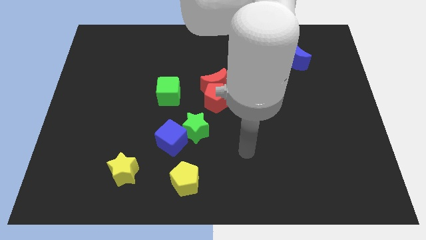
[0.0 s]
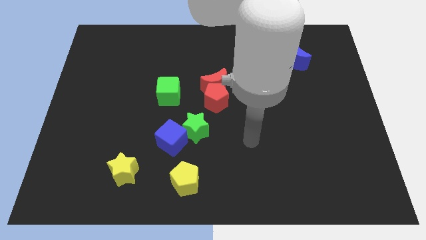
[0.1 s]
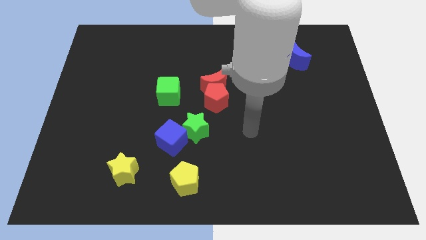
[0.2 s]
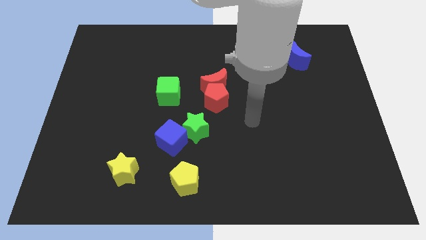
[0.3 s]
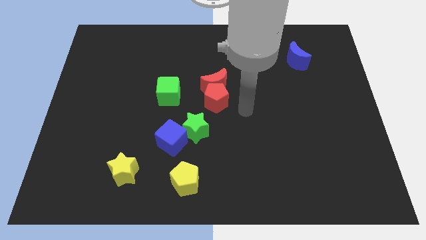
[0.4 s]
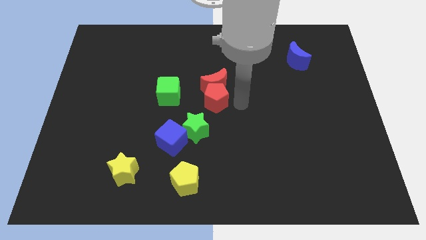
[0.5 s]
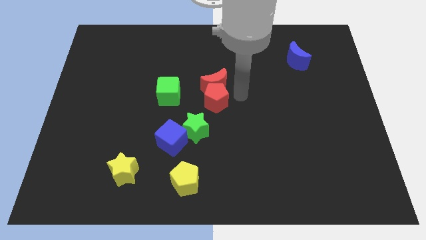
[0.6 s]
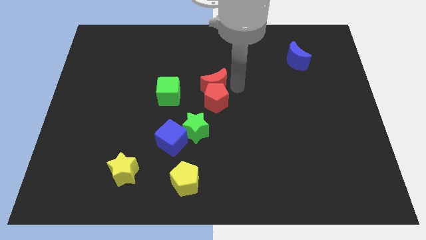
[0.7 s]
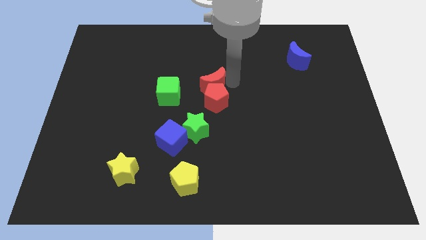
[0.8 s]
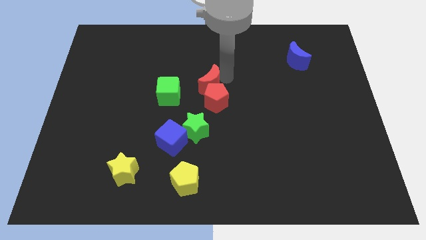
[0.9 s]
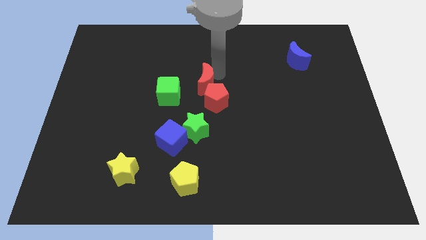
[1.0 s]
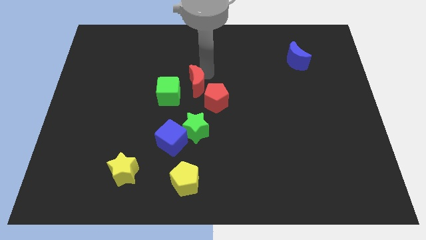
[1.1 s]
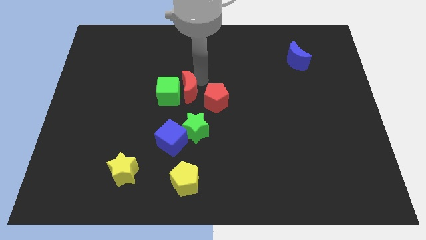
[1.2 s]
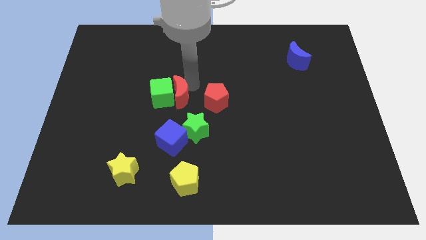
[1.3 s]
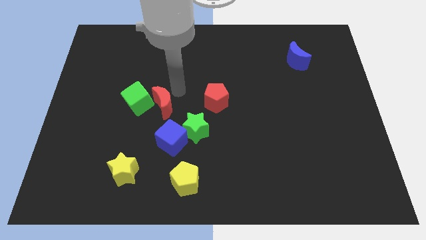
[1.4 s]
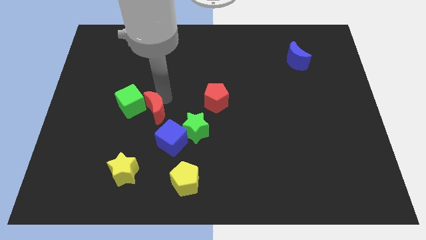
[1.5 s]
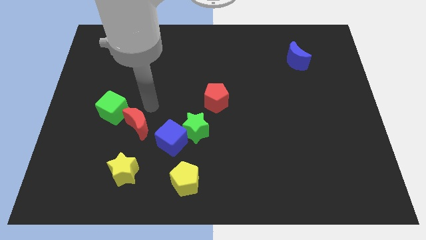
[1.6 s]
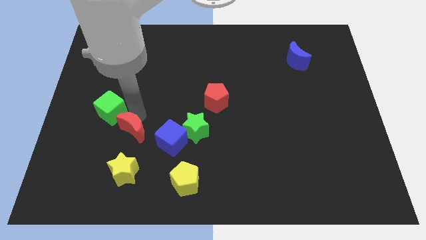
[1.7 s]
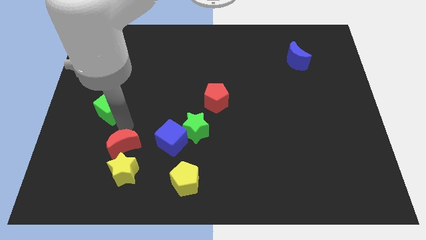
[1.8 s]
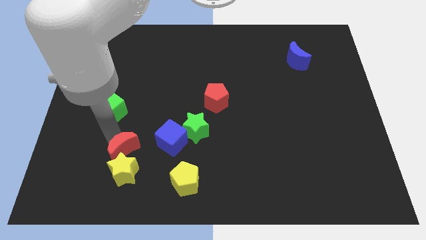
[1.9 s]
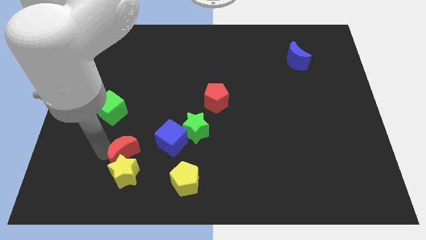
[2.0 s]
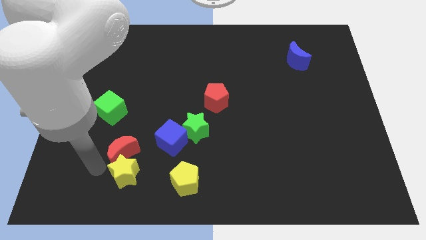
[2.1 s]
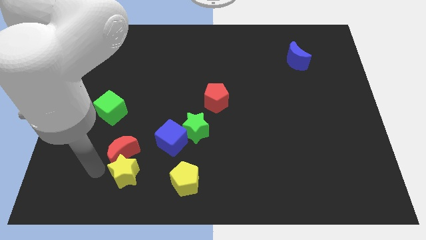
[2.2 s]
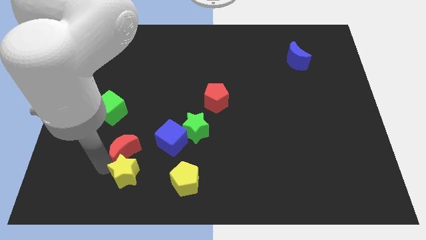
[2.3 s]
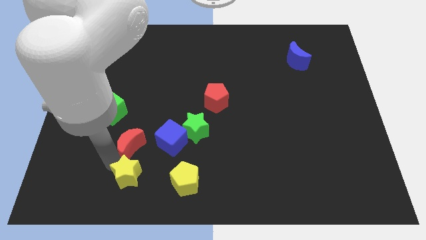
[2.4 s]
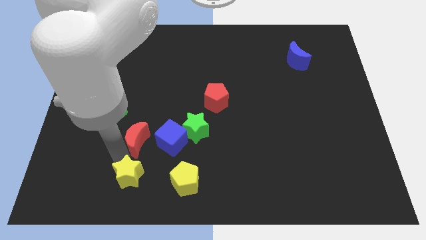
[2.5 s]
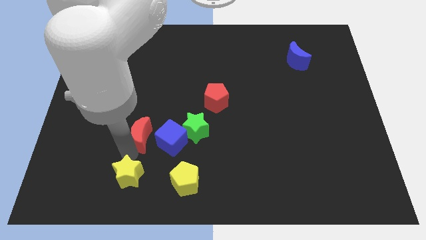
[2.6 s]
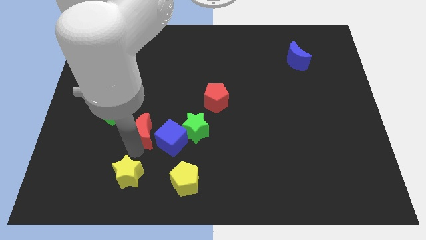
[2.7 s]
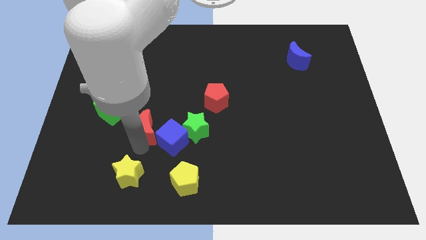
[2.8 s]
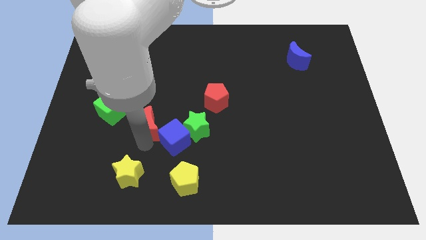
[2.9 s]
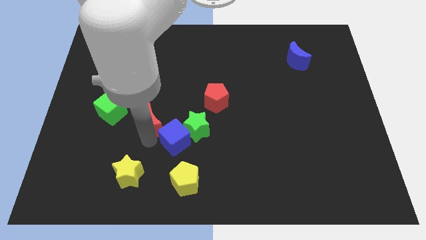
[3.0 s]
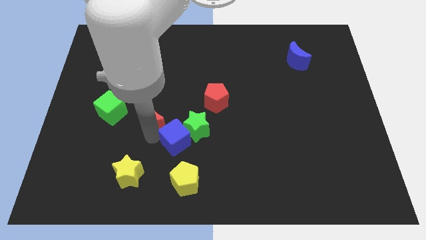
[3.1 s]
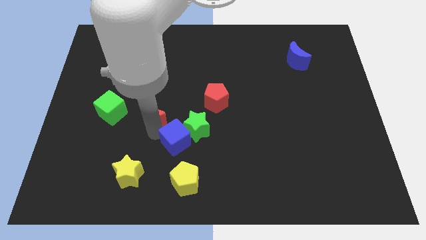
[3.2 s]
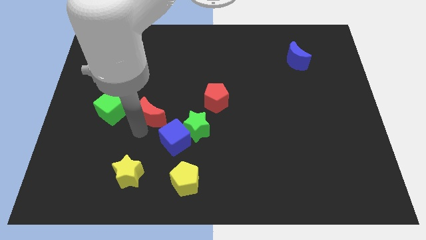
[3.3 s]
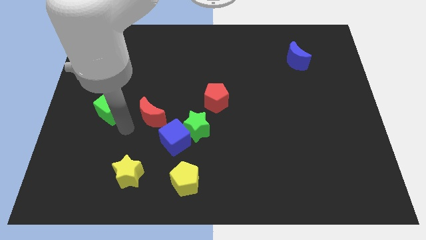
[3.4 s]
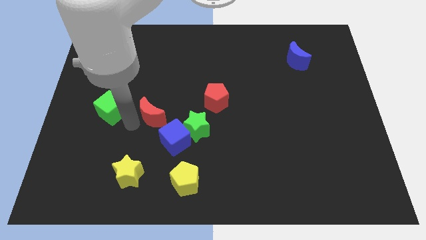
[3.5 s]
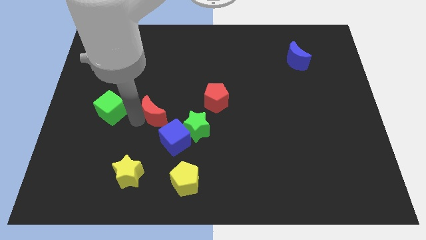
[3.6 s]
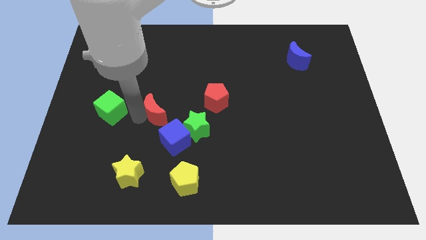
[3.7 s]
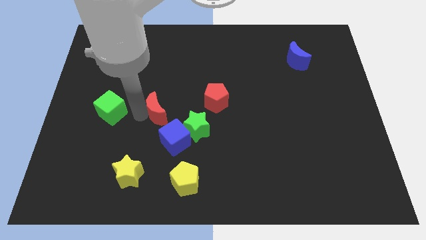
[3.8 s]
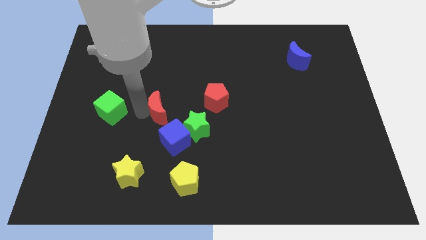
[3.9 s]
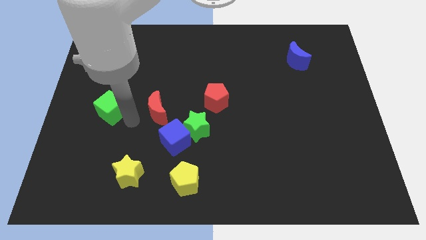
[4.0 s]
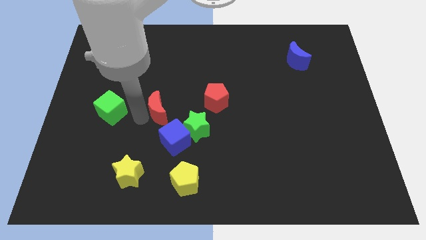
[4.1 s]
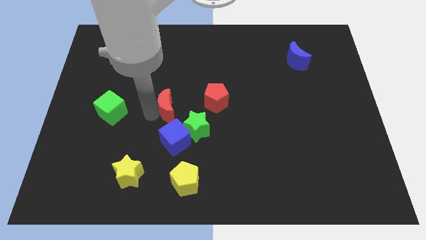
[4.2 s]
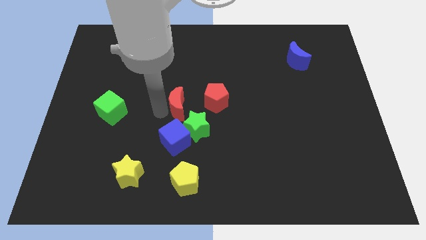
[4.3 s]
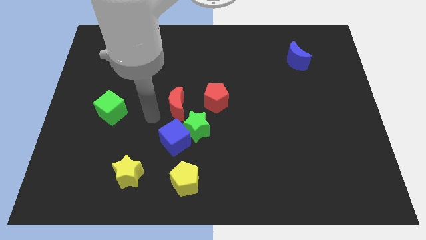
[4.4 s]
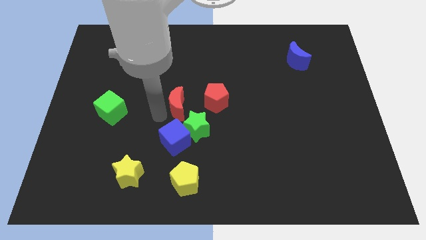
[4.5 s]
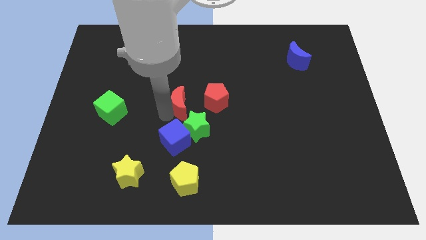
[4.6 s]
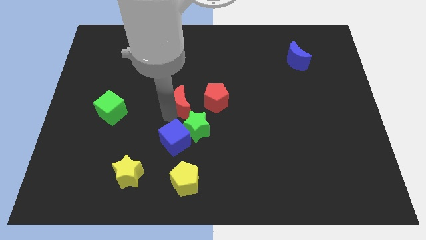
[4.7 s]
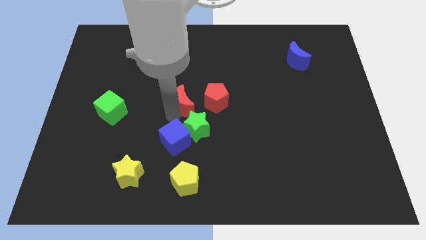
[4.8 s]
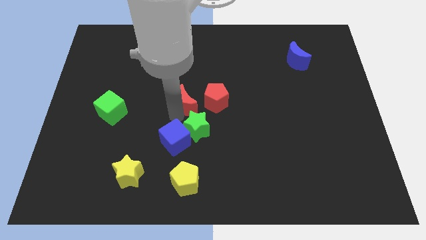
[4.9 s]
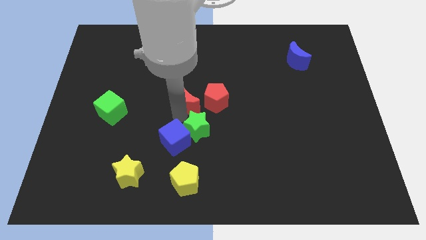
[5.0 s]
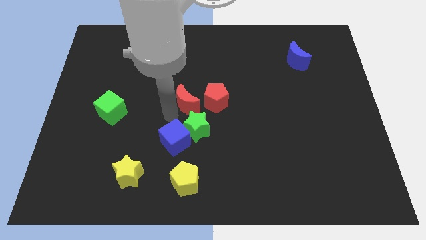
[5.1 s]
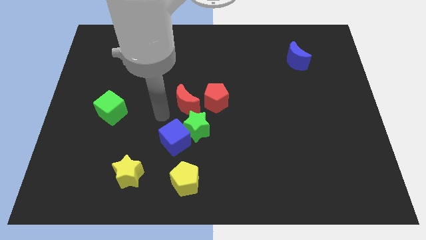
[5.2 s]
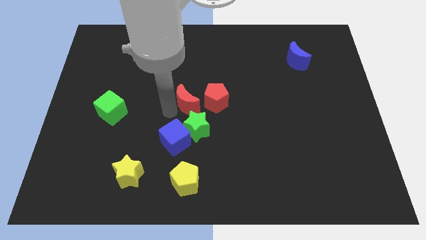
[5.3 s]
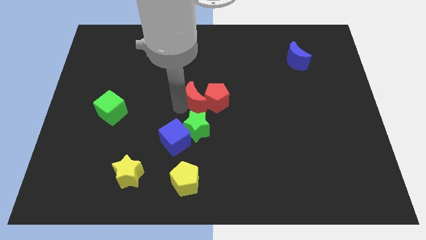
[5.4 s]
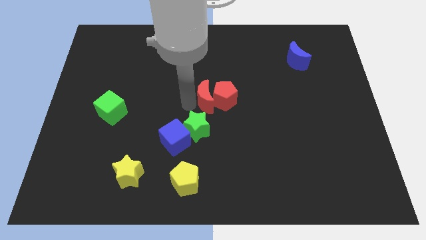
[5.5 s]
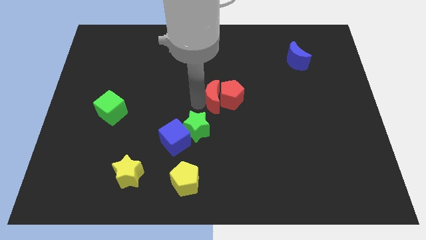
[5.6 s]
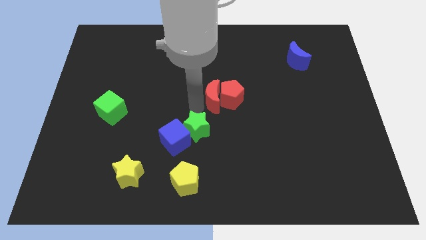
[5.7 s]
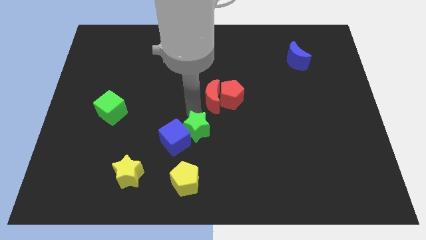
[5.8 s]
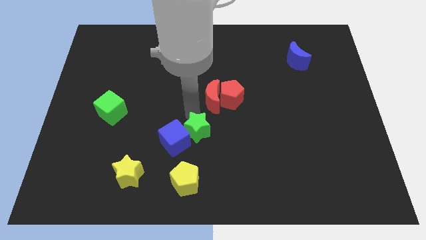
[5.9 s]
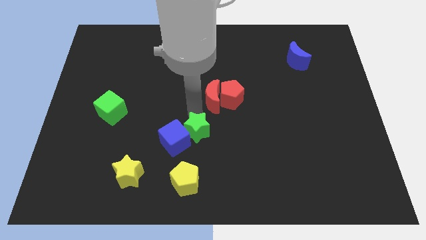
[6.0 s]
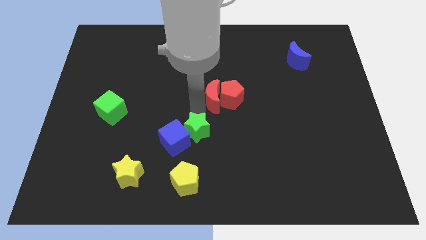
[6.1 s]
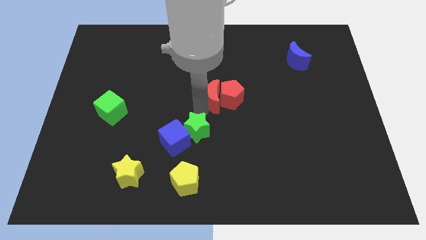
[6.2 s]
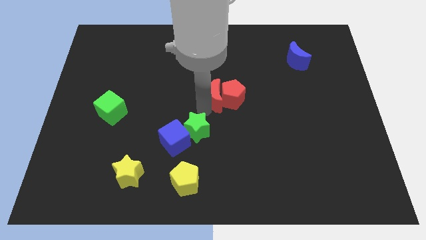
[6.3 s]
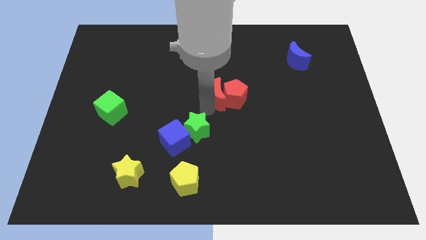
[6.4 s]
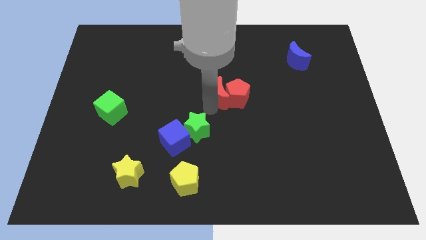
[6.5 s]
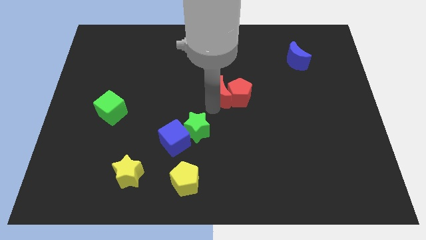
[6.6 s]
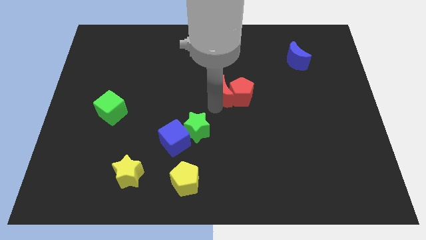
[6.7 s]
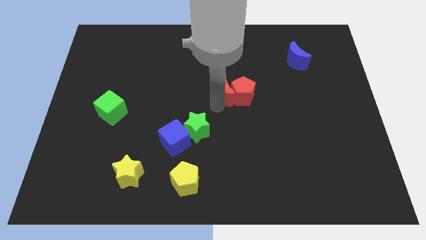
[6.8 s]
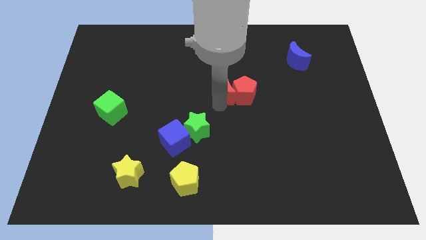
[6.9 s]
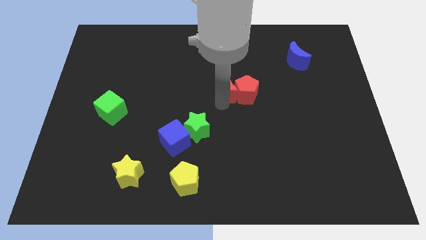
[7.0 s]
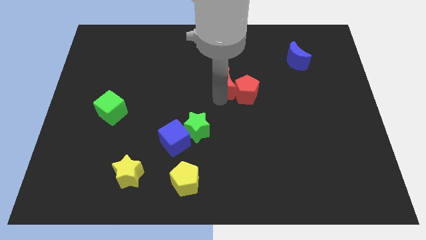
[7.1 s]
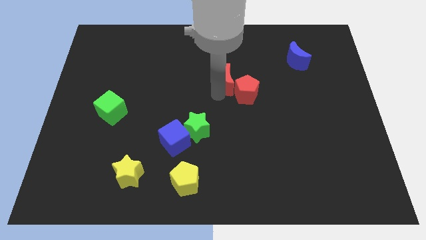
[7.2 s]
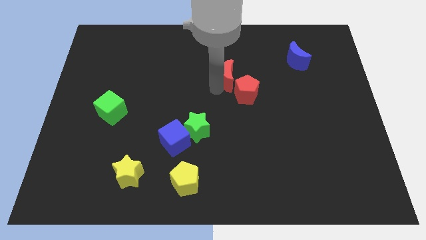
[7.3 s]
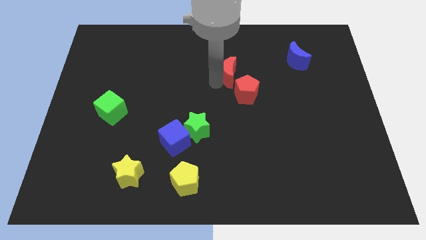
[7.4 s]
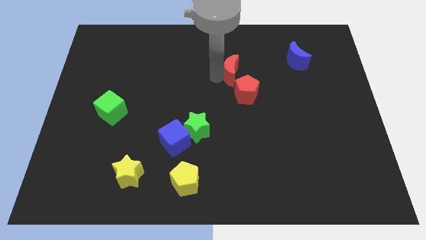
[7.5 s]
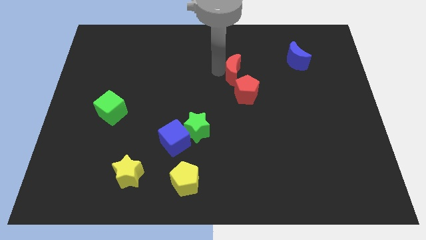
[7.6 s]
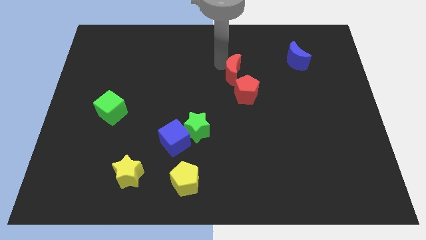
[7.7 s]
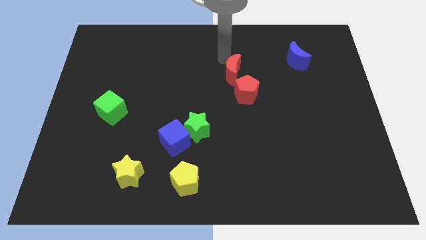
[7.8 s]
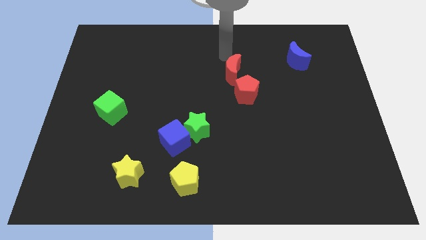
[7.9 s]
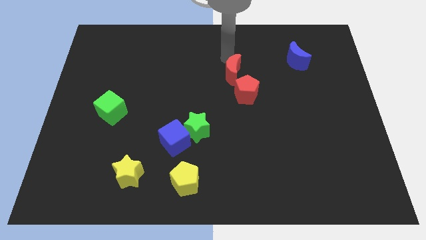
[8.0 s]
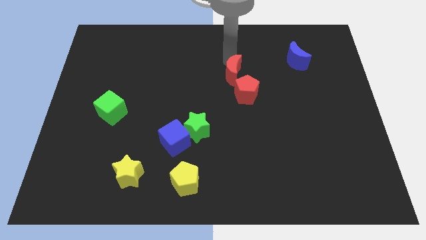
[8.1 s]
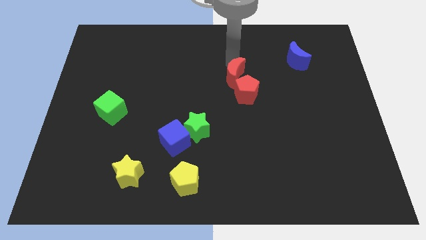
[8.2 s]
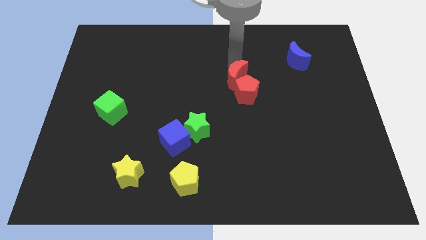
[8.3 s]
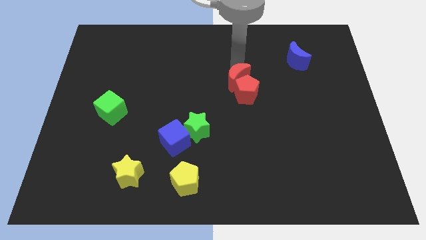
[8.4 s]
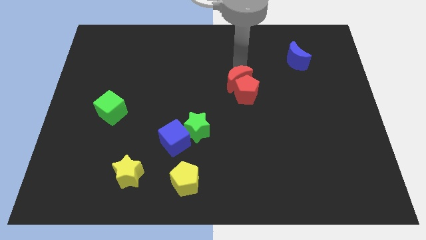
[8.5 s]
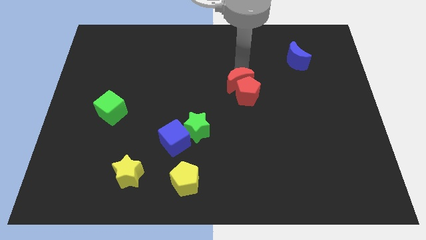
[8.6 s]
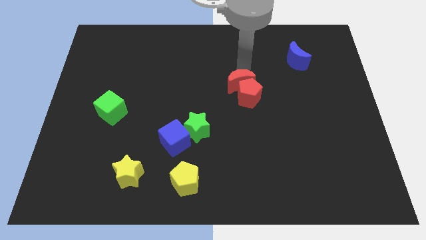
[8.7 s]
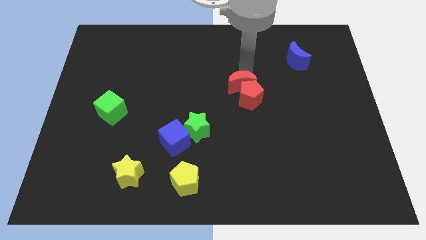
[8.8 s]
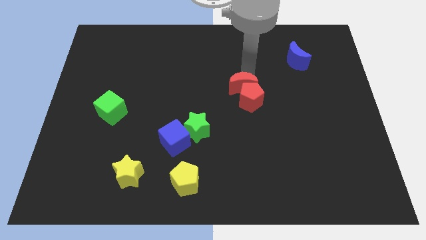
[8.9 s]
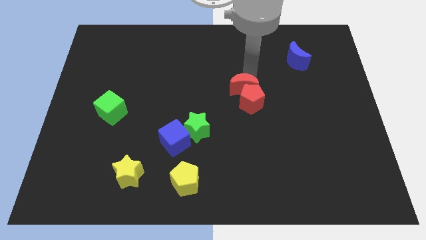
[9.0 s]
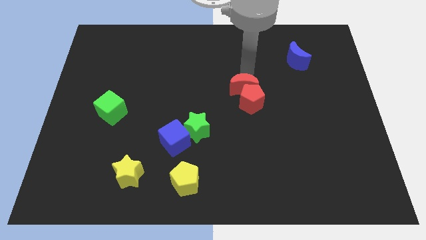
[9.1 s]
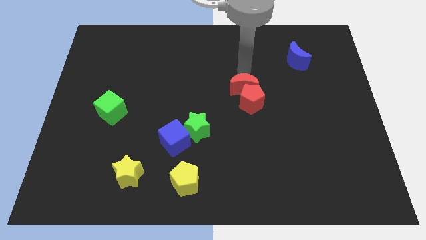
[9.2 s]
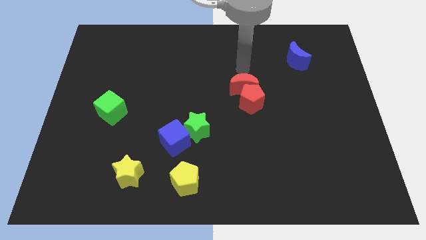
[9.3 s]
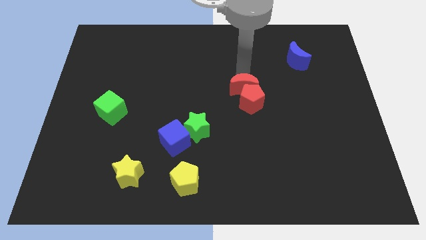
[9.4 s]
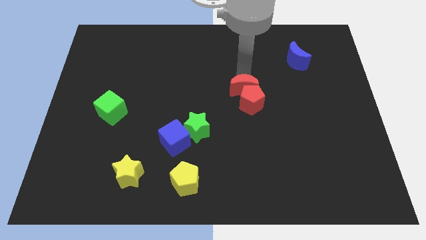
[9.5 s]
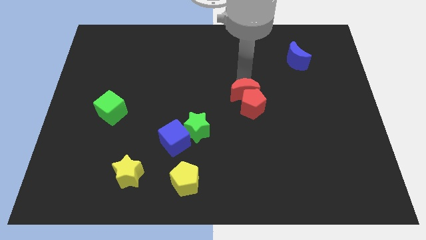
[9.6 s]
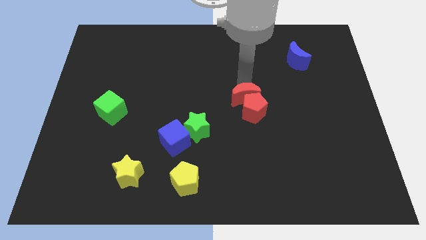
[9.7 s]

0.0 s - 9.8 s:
move the red moon downwards and to the right somewhat
